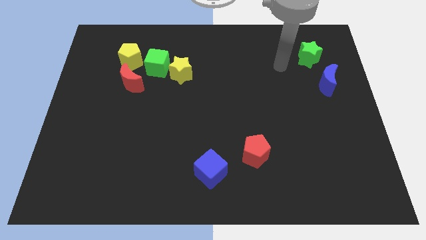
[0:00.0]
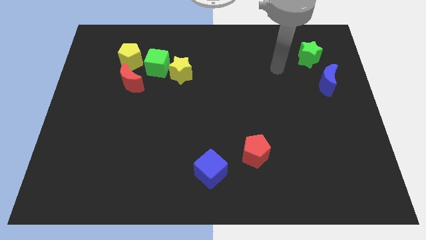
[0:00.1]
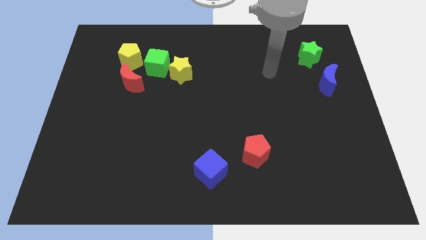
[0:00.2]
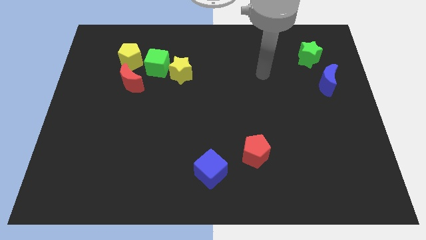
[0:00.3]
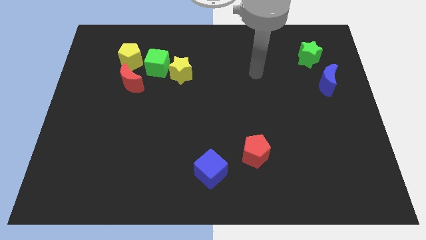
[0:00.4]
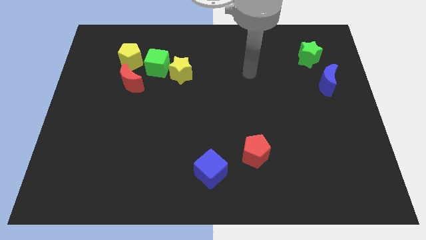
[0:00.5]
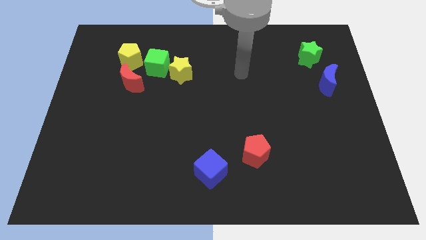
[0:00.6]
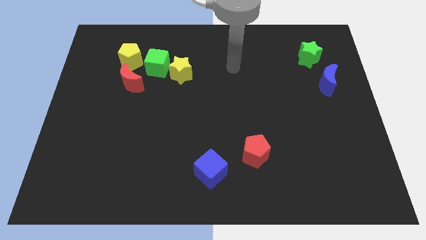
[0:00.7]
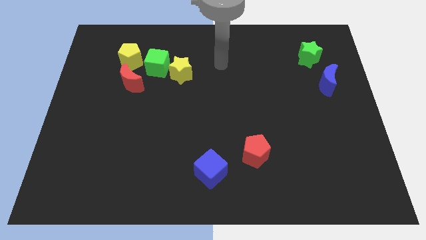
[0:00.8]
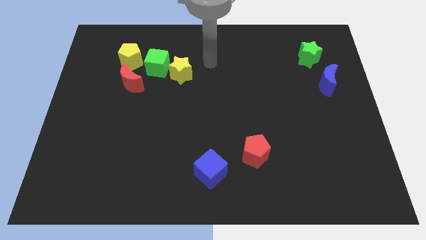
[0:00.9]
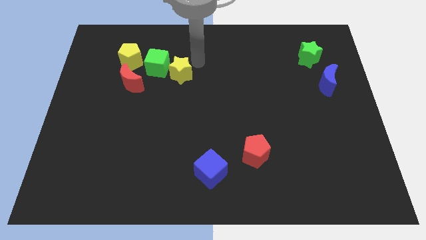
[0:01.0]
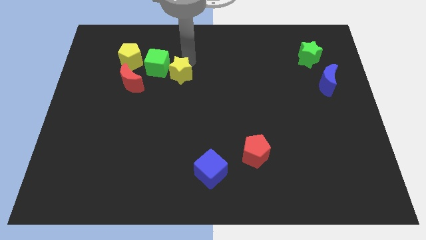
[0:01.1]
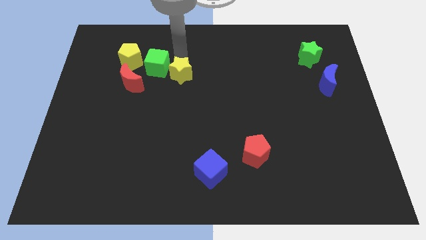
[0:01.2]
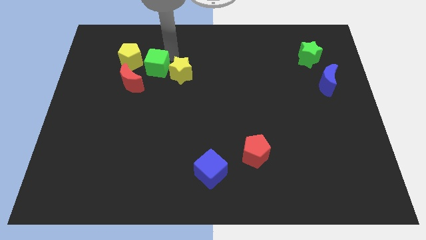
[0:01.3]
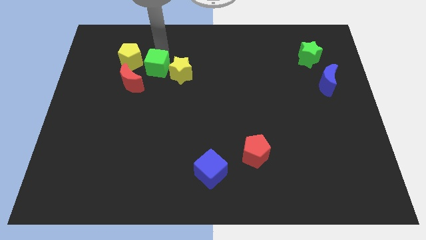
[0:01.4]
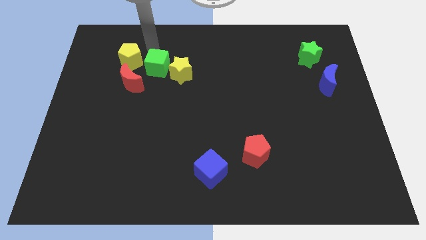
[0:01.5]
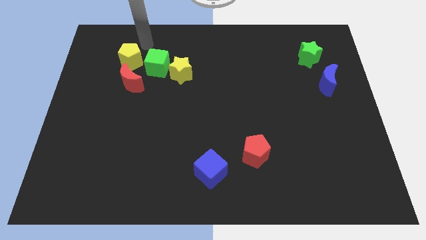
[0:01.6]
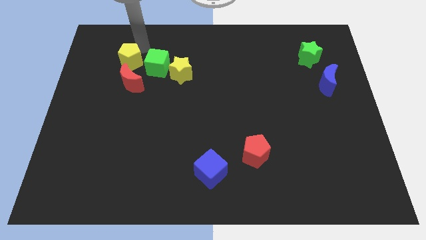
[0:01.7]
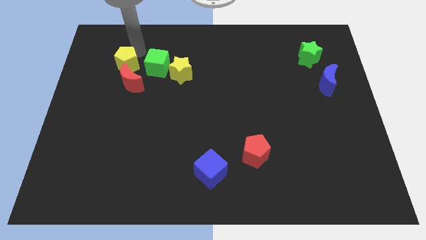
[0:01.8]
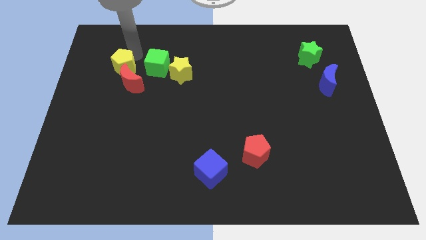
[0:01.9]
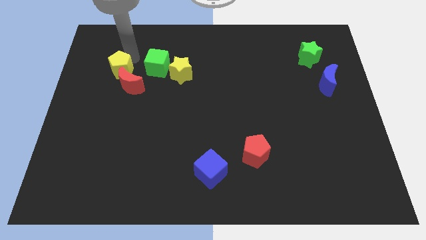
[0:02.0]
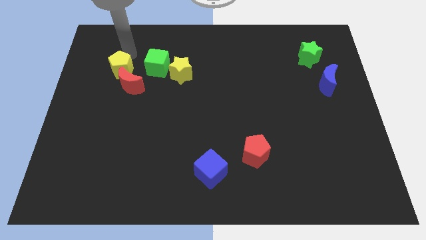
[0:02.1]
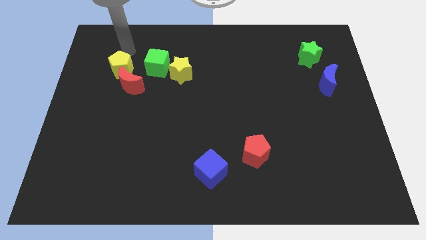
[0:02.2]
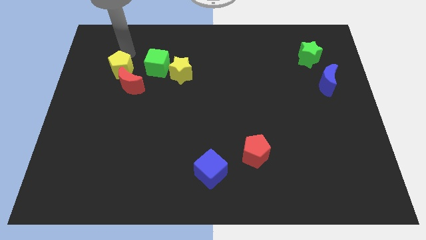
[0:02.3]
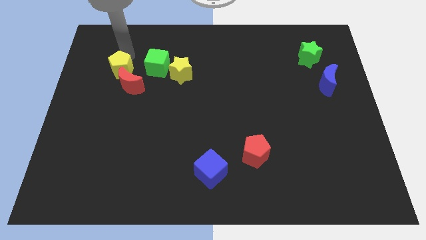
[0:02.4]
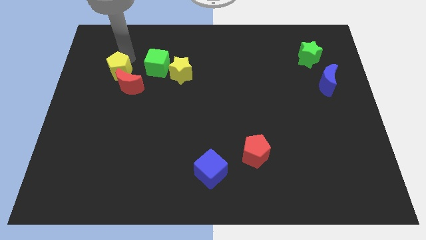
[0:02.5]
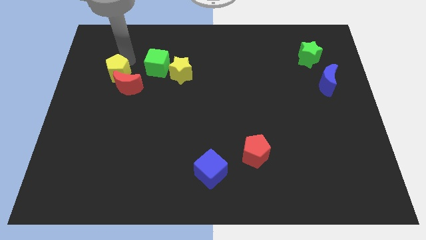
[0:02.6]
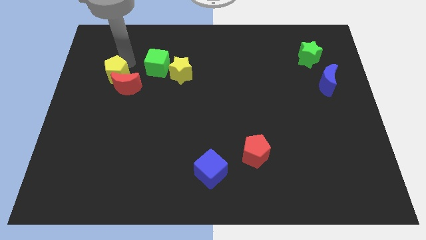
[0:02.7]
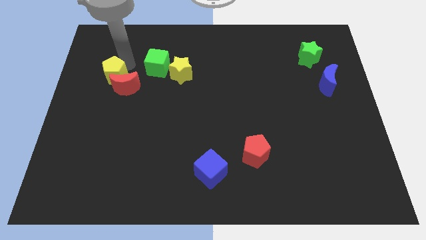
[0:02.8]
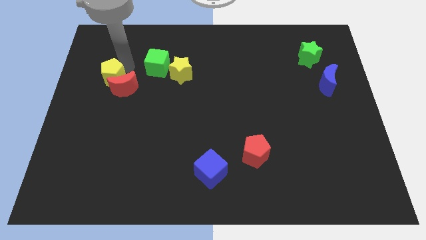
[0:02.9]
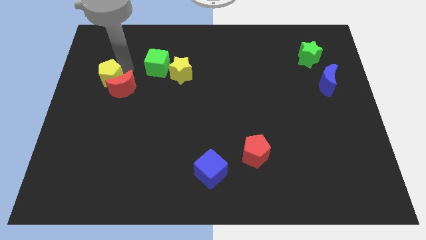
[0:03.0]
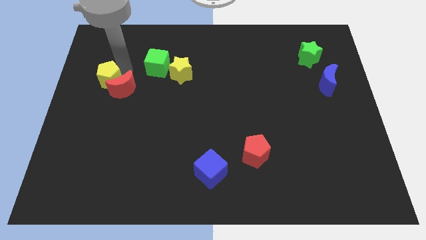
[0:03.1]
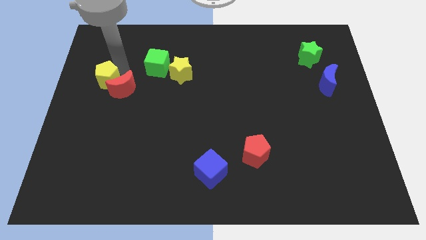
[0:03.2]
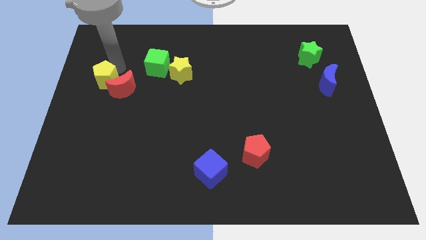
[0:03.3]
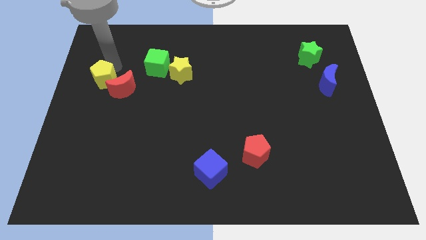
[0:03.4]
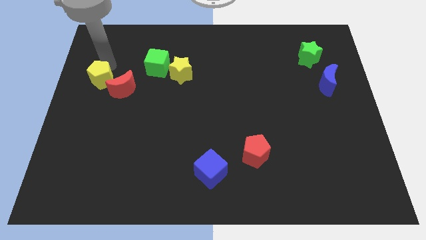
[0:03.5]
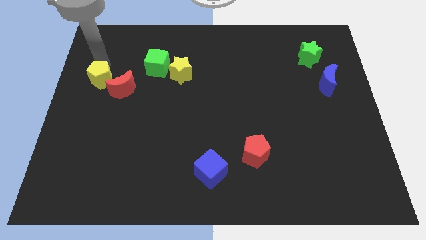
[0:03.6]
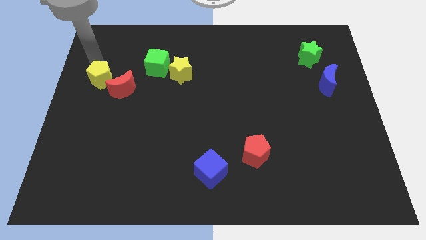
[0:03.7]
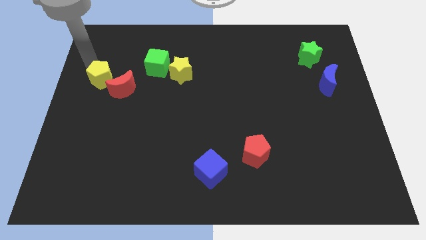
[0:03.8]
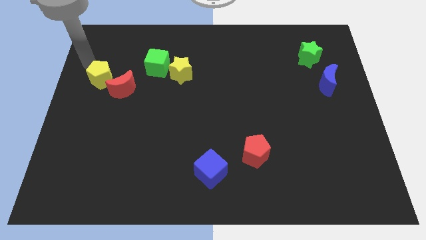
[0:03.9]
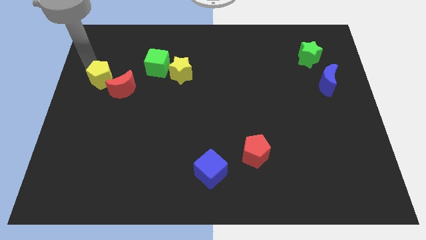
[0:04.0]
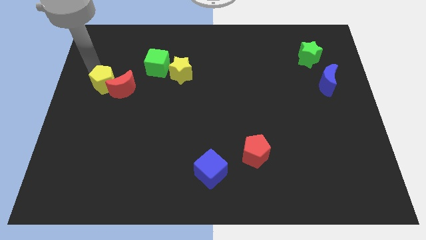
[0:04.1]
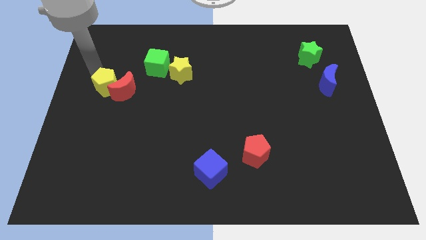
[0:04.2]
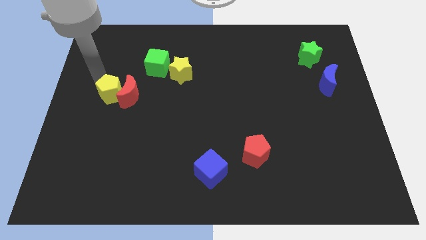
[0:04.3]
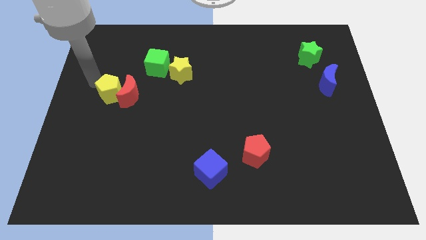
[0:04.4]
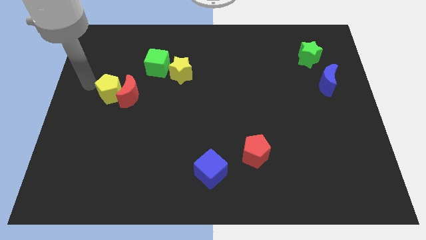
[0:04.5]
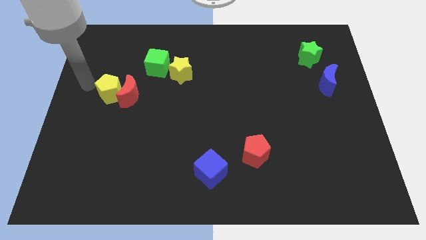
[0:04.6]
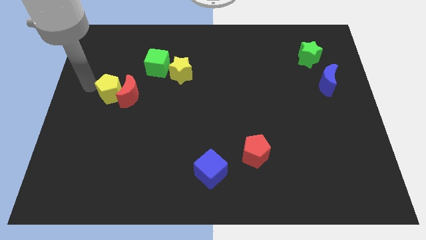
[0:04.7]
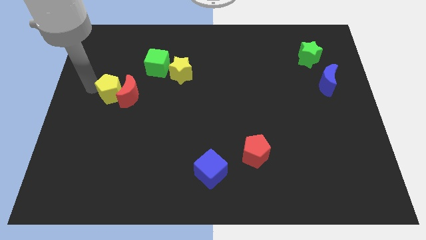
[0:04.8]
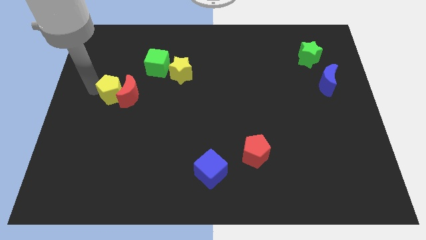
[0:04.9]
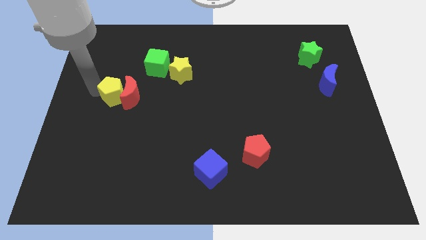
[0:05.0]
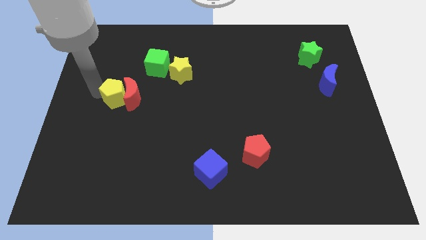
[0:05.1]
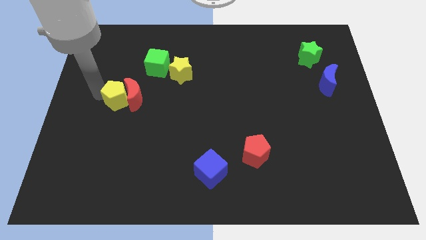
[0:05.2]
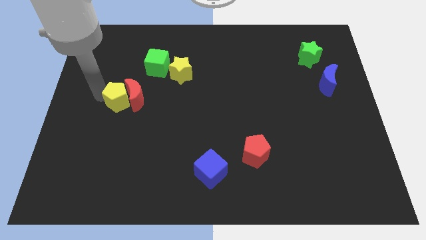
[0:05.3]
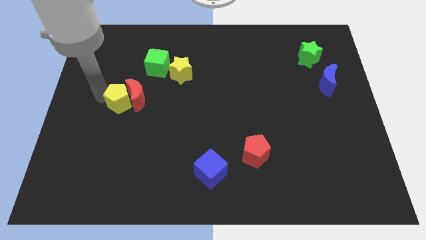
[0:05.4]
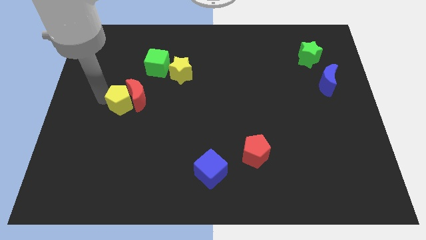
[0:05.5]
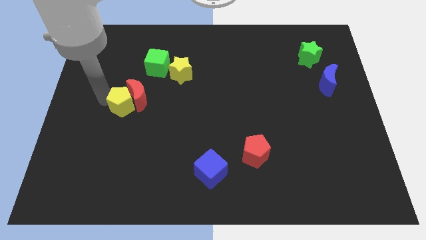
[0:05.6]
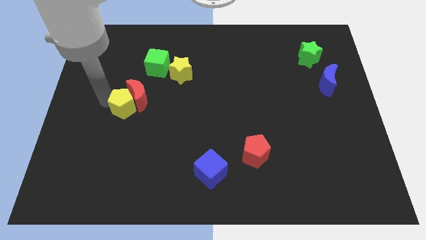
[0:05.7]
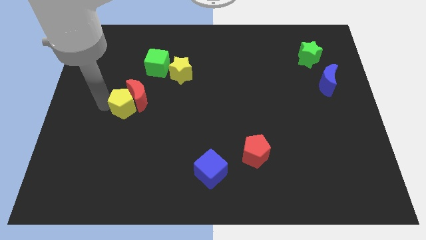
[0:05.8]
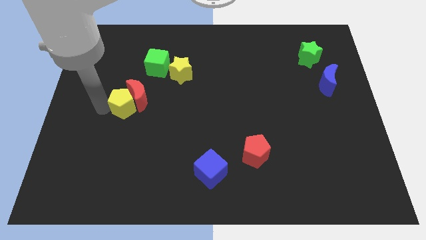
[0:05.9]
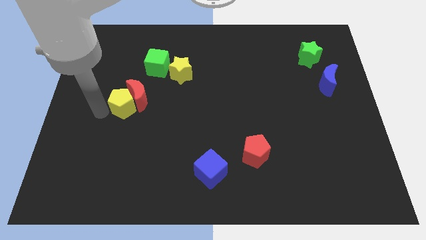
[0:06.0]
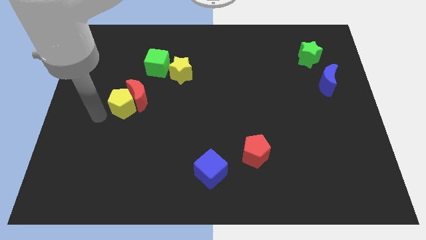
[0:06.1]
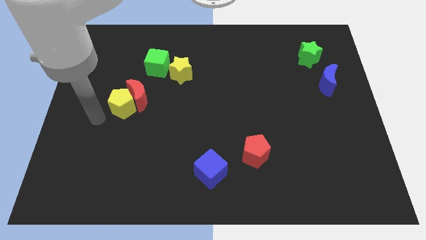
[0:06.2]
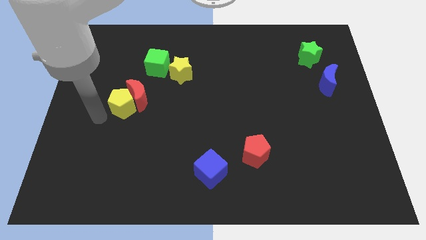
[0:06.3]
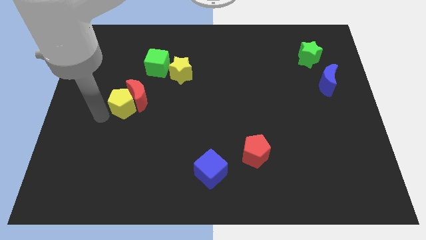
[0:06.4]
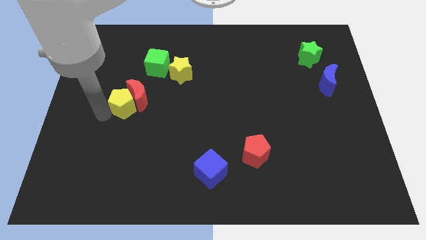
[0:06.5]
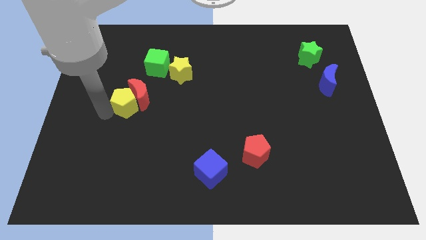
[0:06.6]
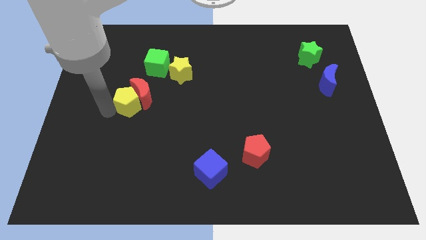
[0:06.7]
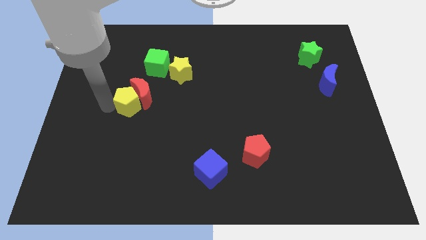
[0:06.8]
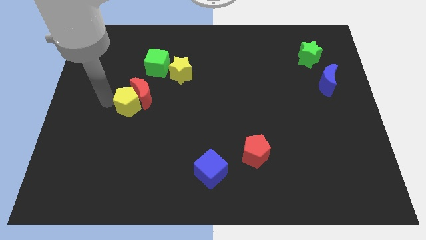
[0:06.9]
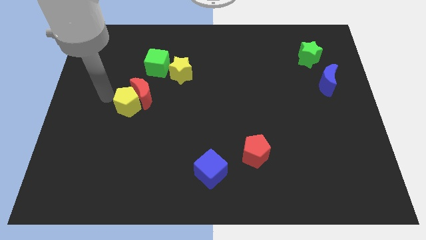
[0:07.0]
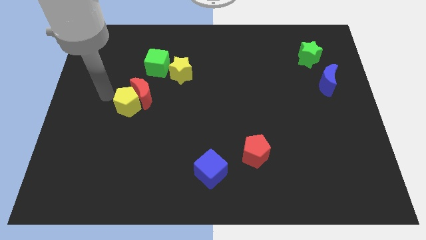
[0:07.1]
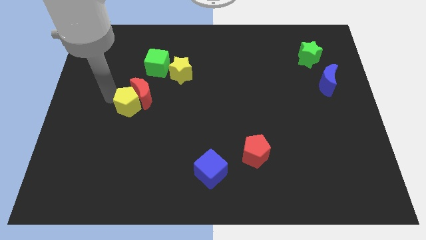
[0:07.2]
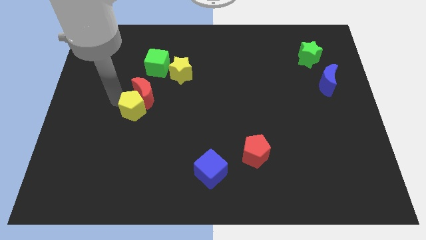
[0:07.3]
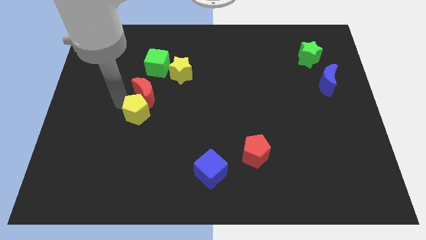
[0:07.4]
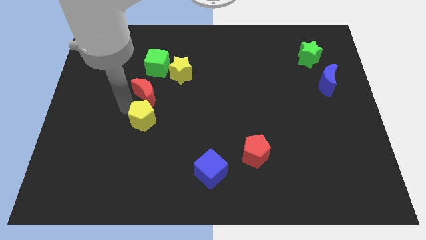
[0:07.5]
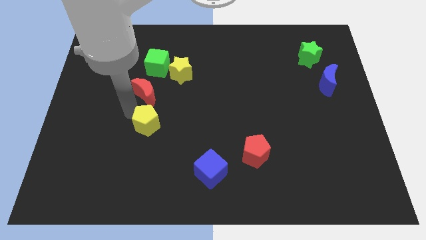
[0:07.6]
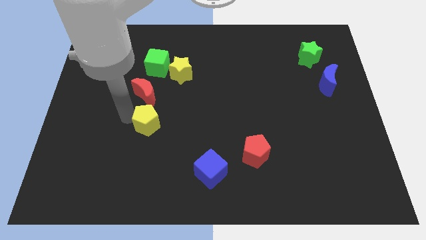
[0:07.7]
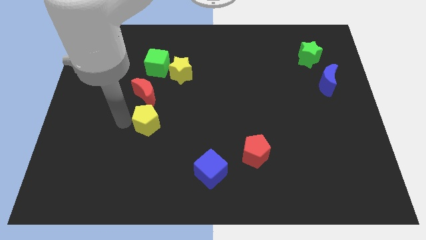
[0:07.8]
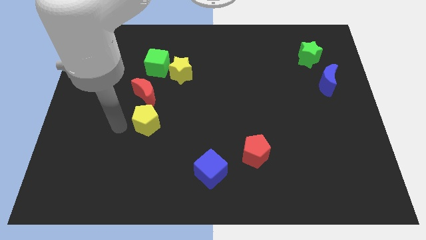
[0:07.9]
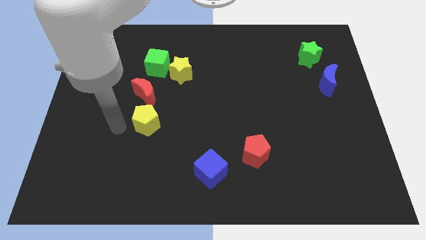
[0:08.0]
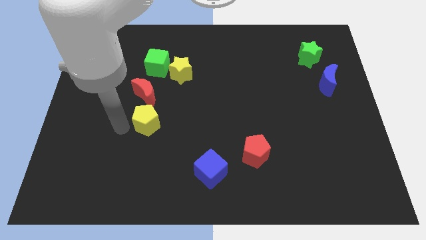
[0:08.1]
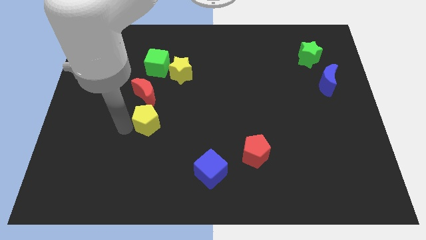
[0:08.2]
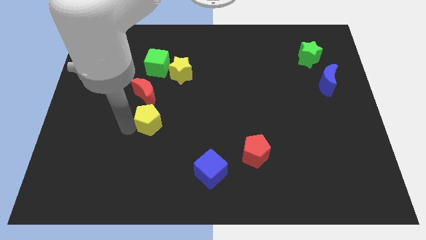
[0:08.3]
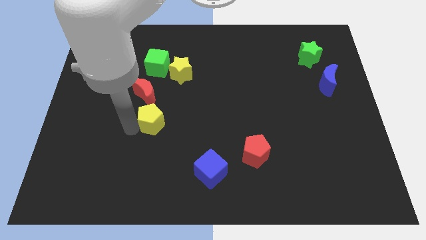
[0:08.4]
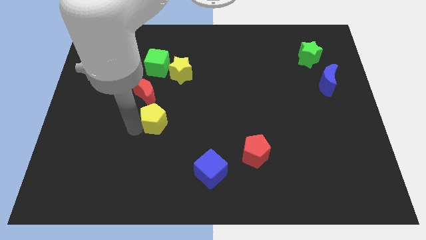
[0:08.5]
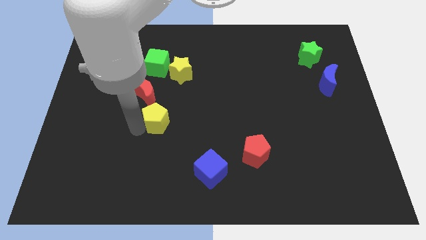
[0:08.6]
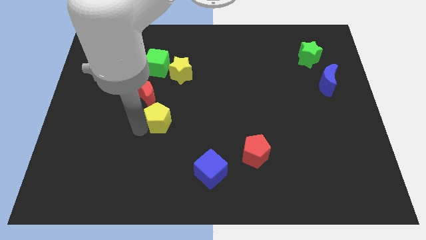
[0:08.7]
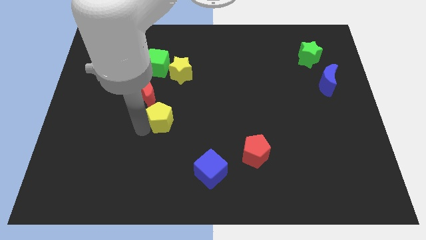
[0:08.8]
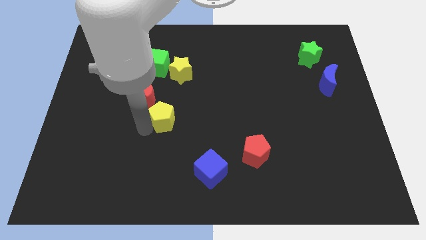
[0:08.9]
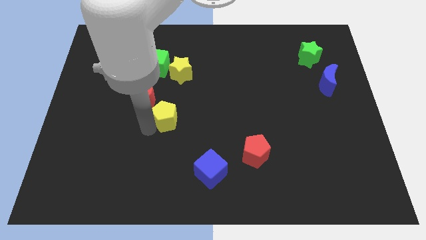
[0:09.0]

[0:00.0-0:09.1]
move the yellow pentagon downwards and to the right diagonally
